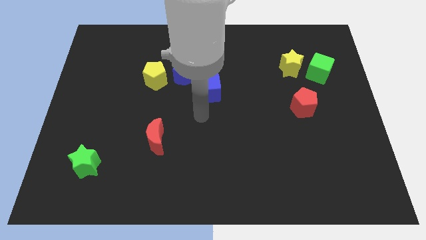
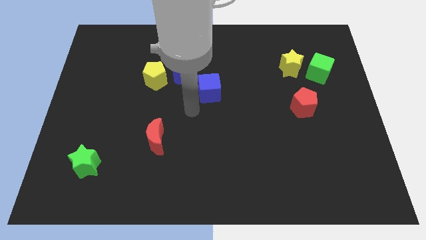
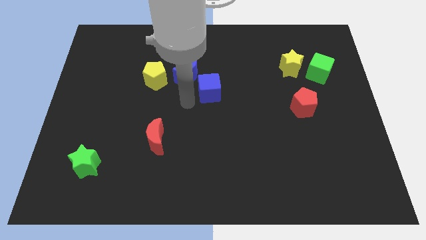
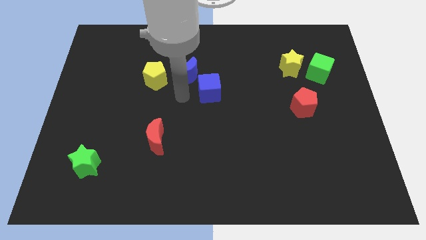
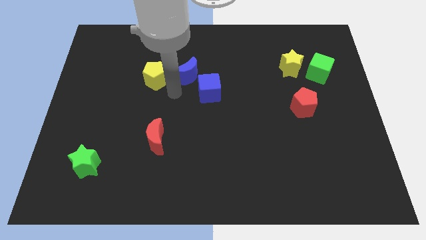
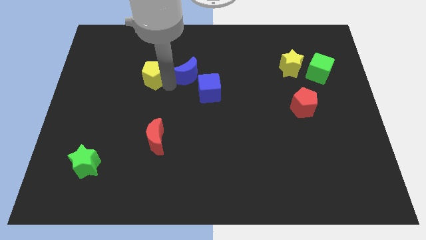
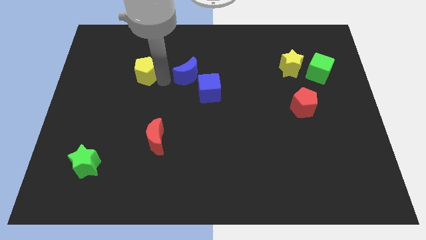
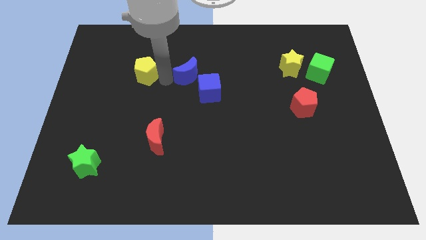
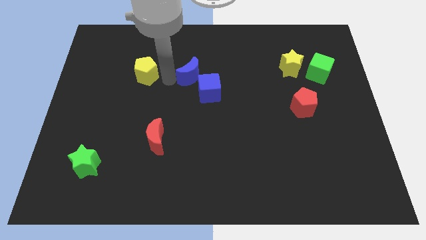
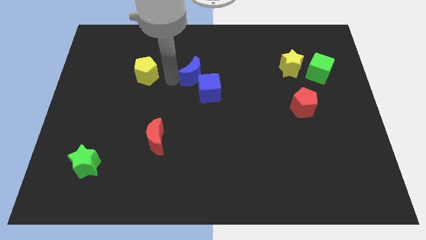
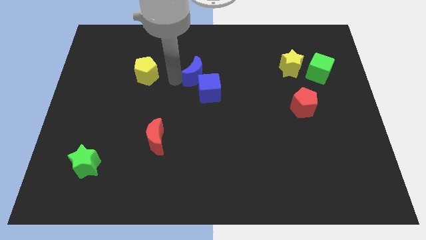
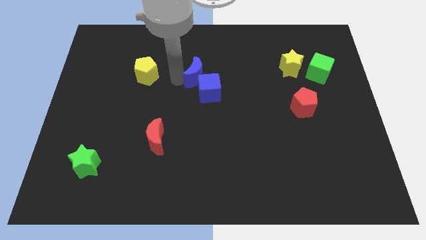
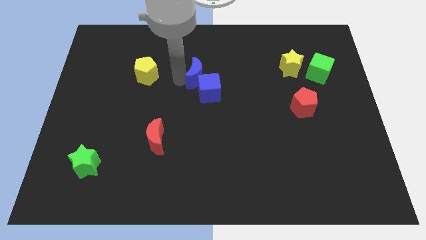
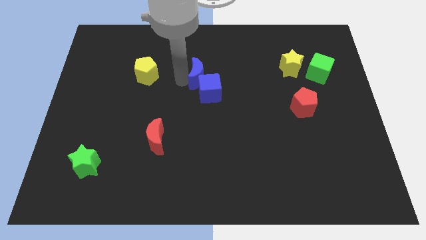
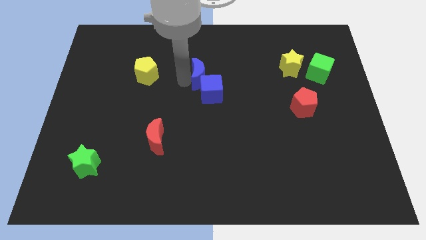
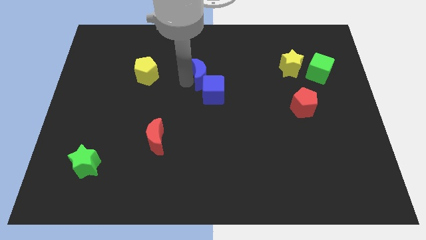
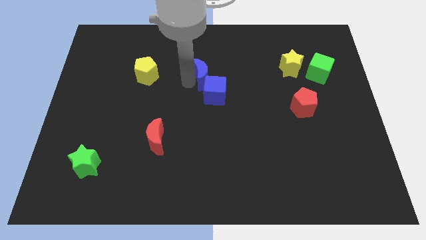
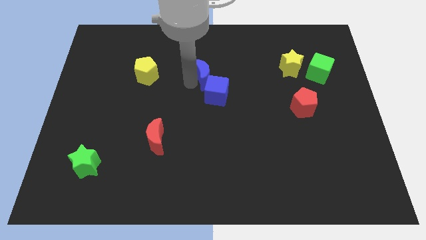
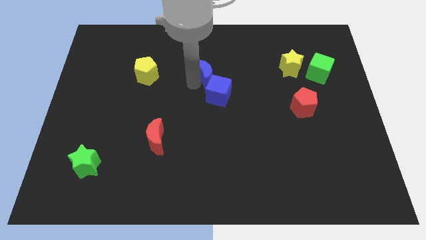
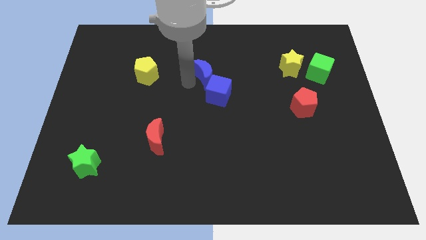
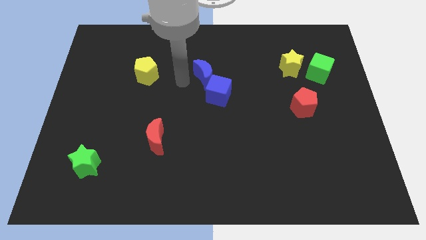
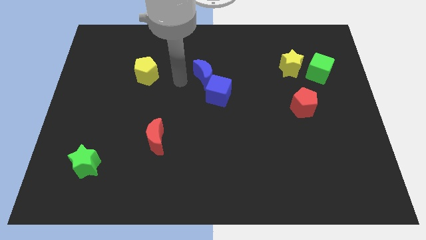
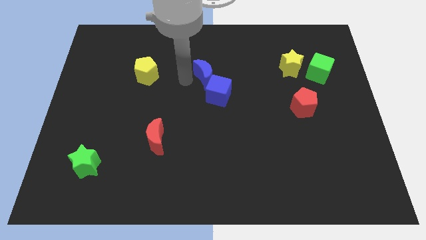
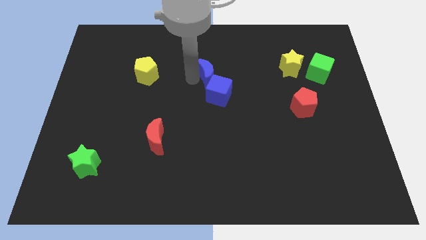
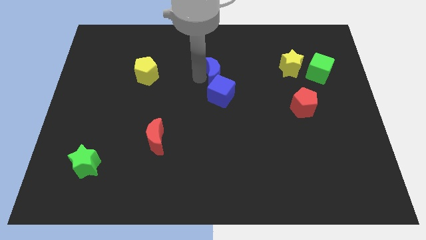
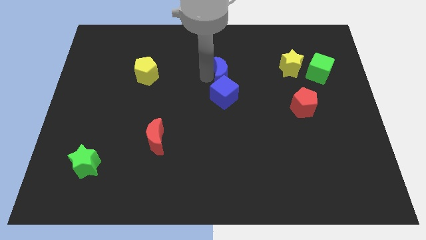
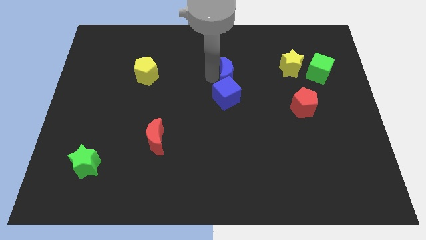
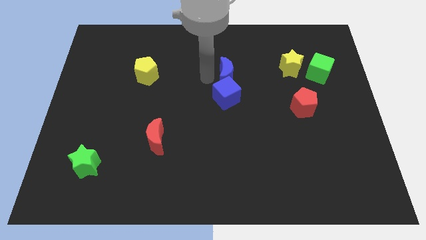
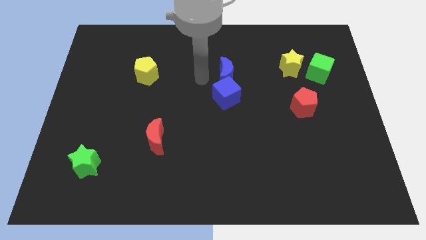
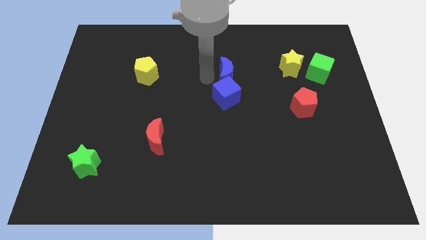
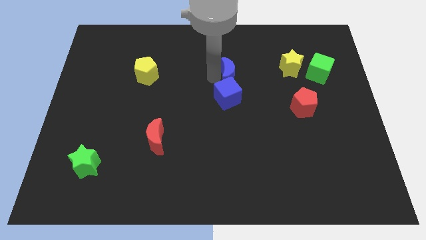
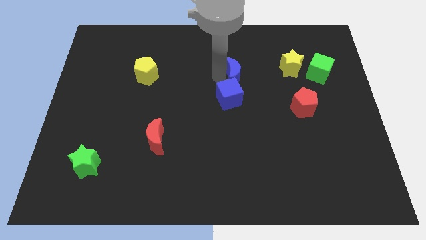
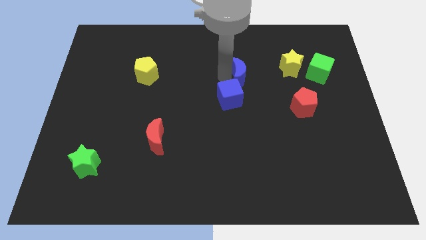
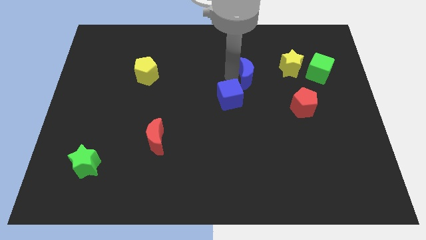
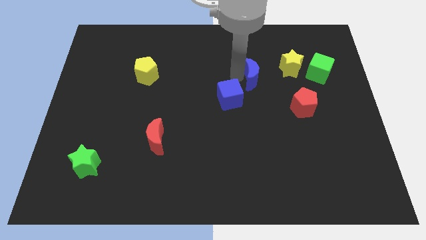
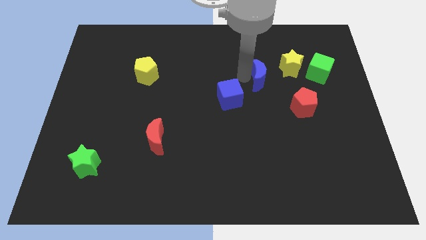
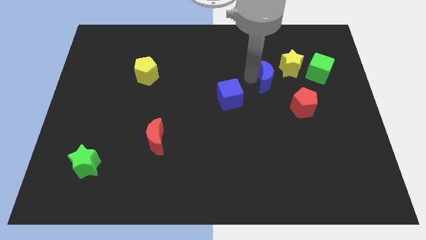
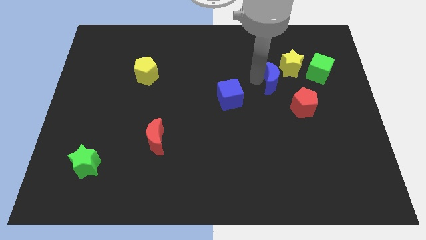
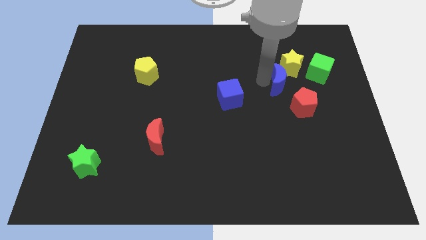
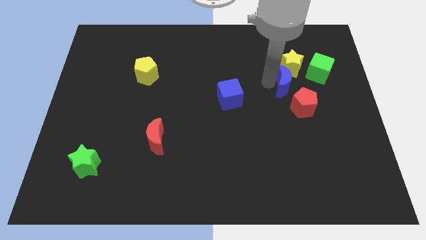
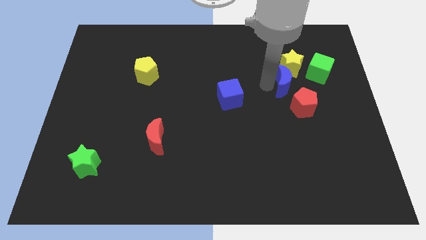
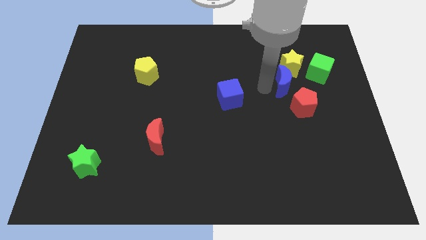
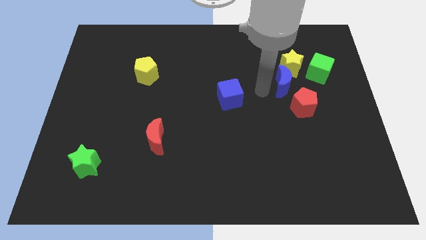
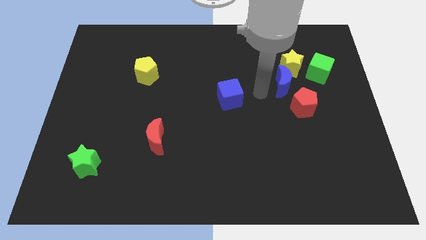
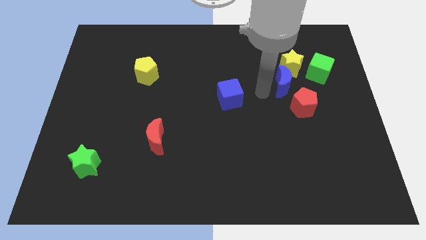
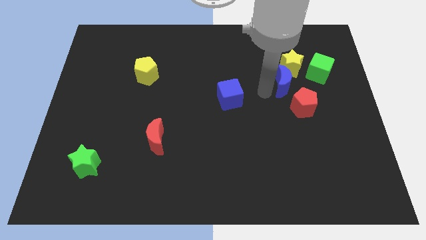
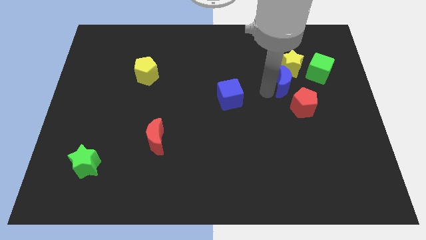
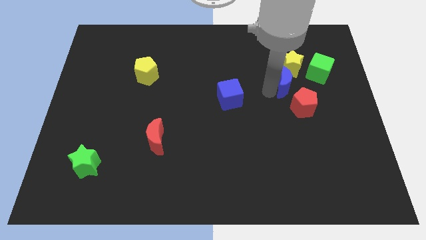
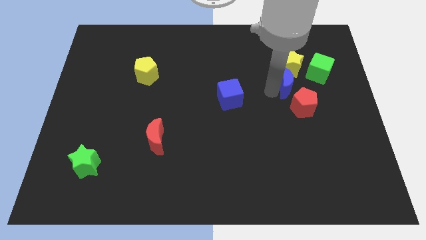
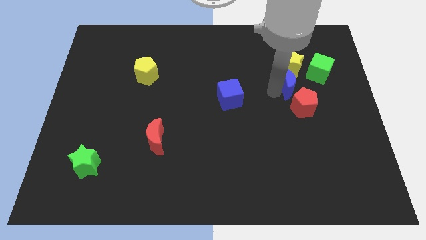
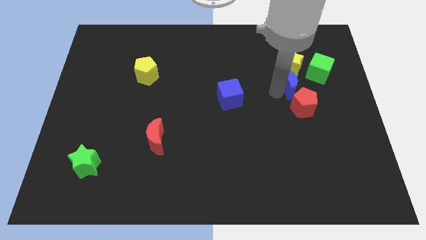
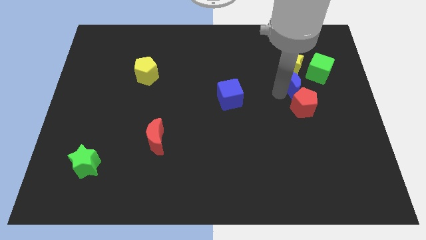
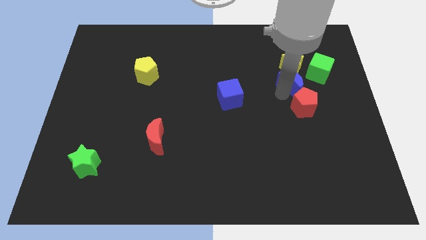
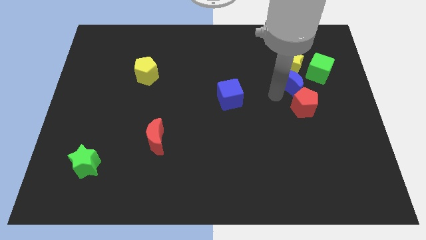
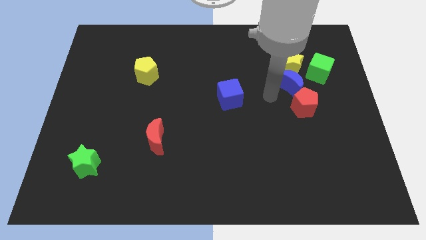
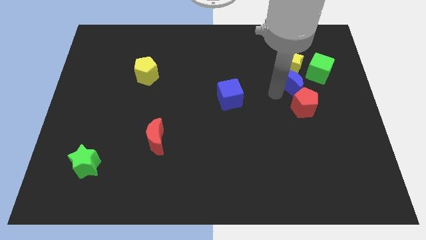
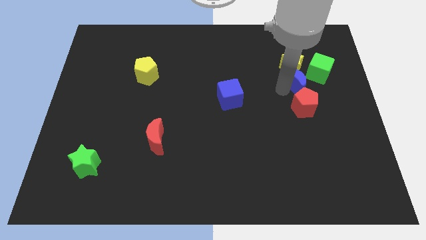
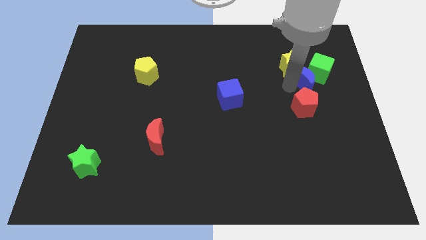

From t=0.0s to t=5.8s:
slide the blue moon towards the green cube

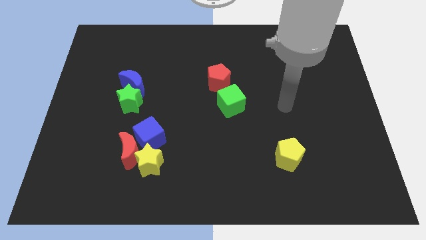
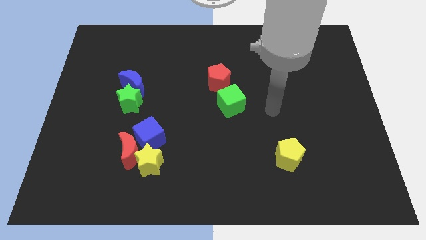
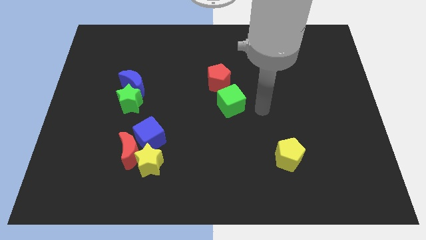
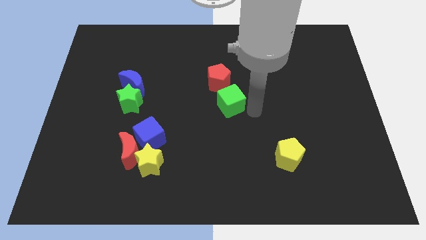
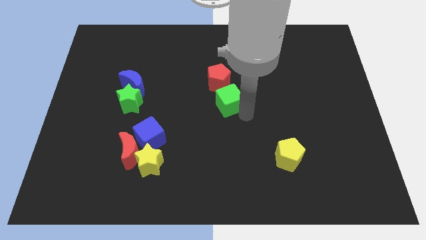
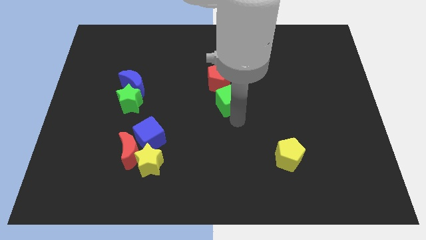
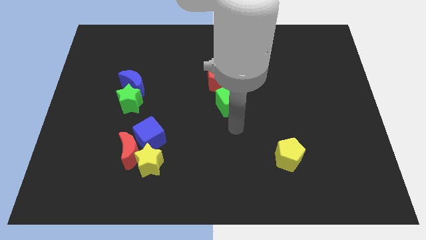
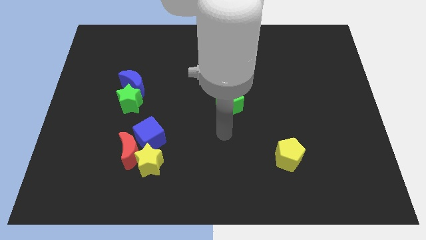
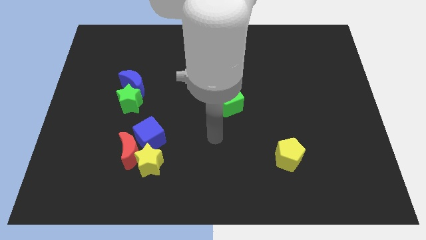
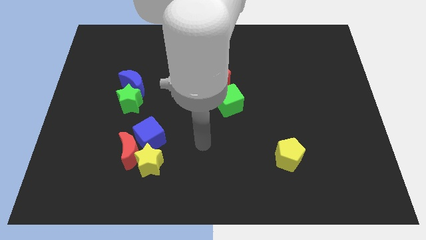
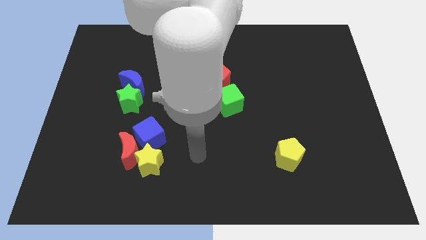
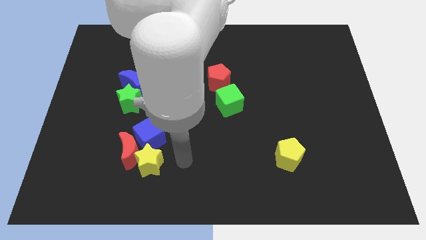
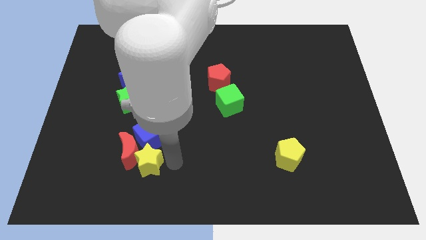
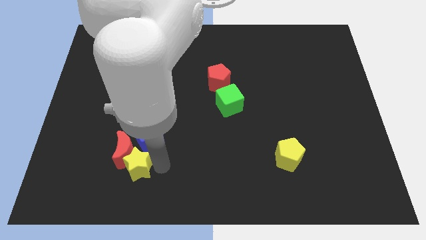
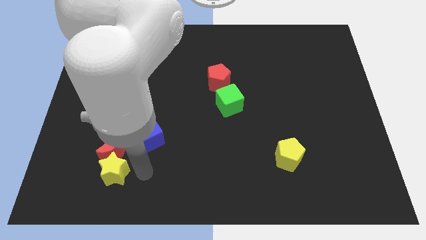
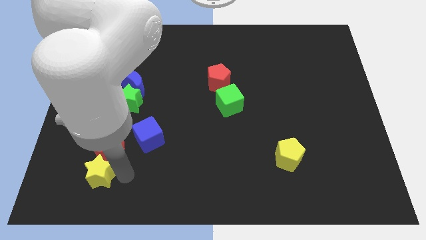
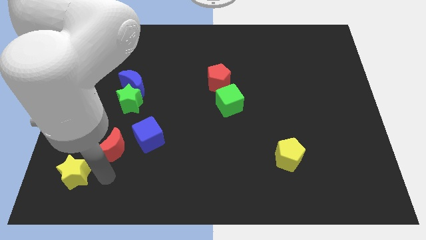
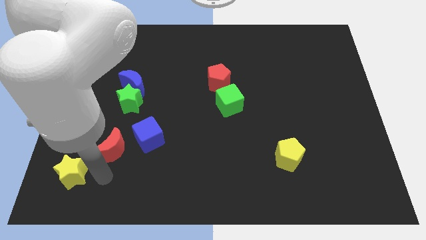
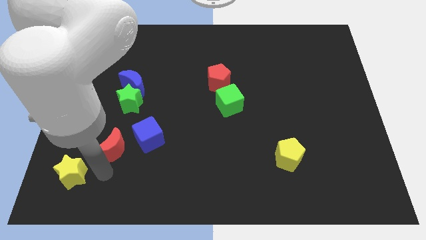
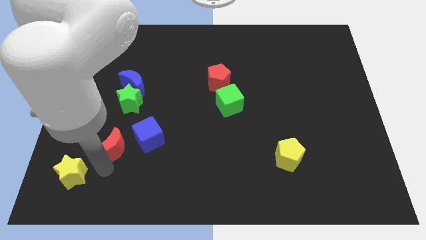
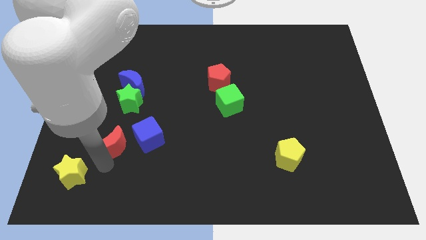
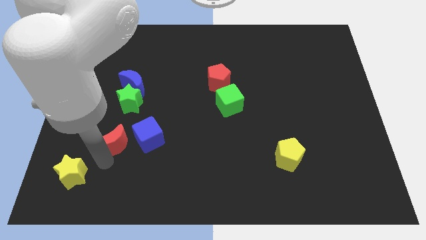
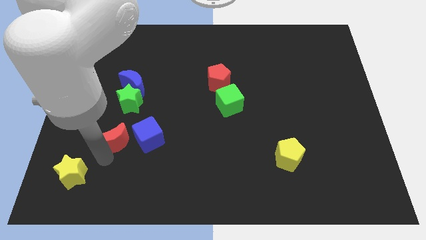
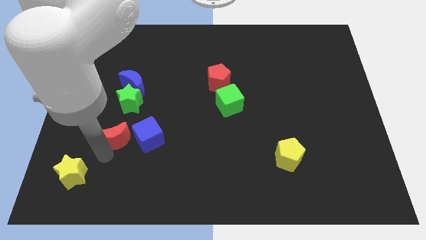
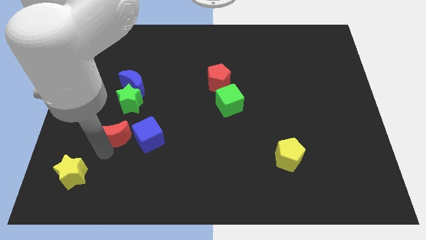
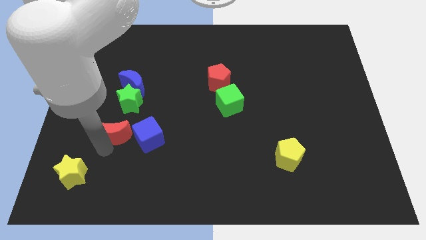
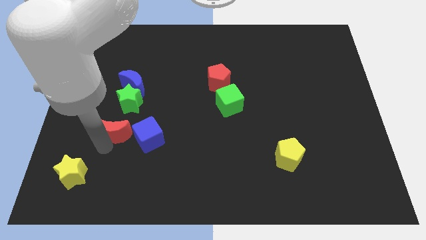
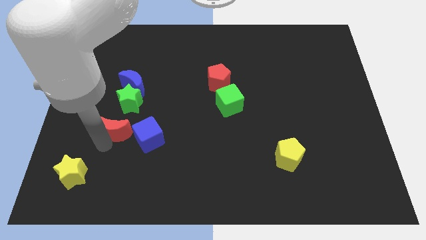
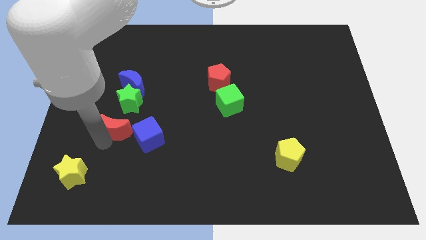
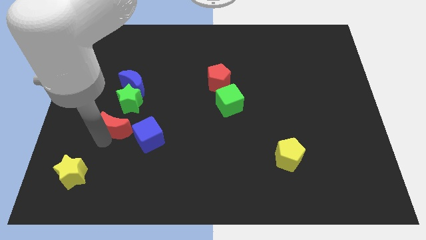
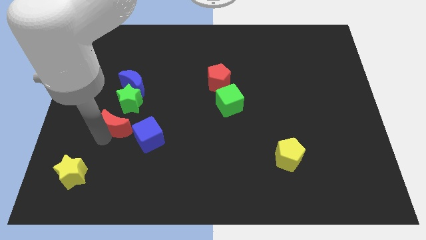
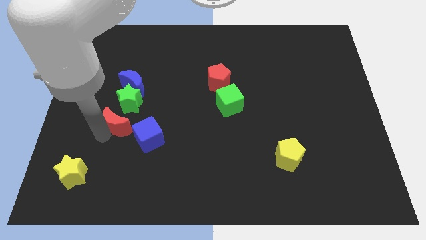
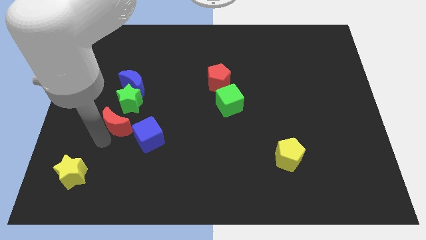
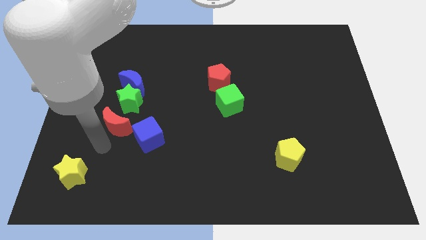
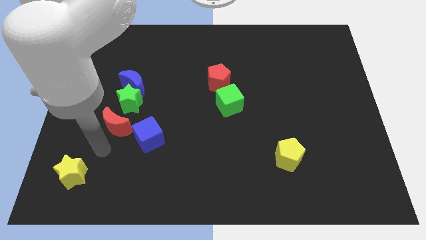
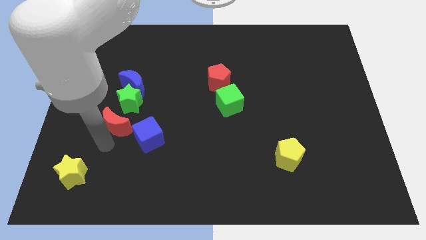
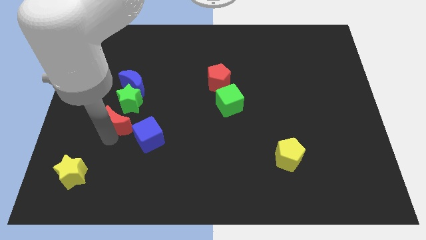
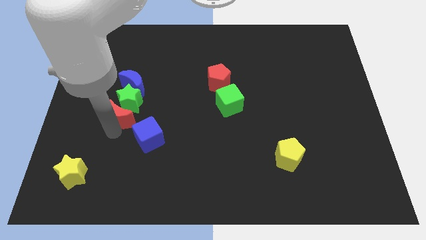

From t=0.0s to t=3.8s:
push the red moon close to the green star
